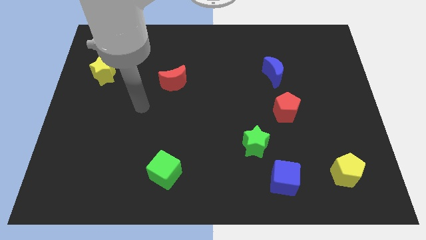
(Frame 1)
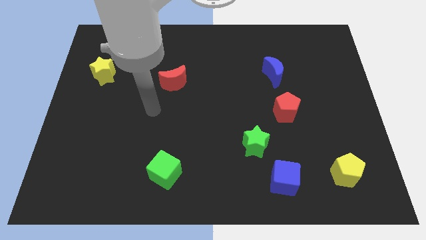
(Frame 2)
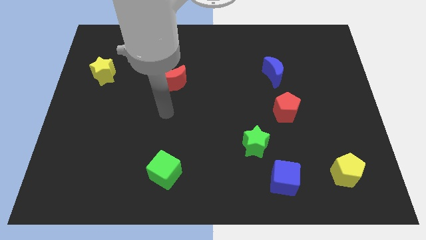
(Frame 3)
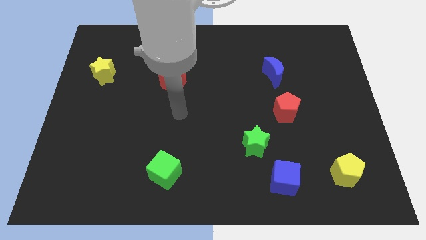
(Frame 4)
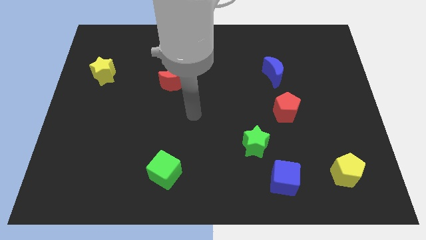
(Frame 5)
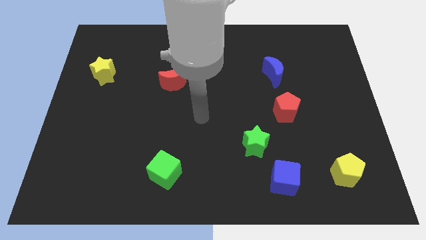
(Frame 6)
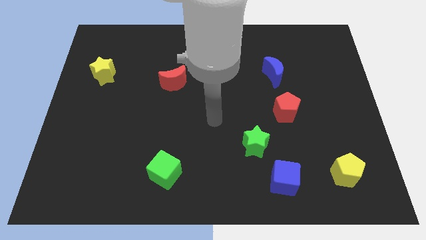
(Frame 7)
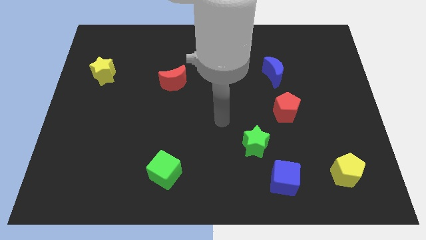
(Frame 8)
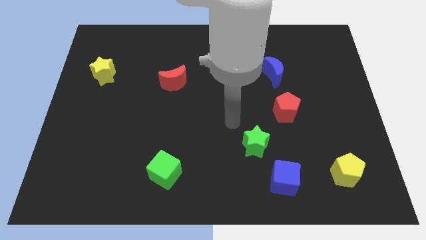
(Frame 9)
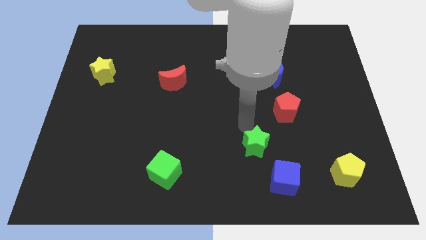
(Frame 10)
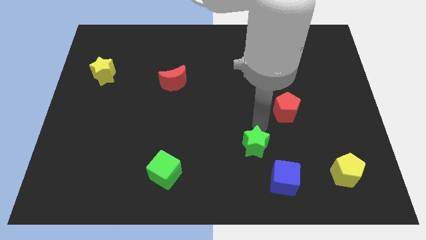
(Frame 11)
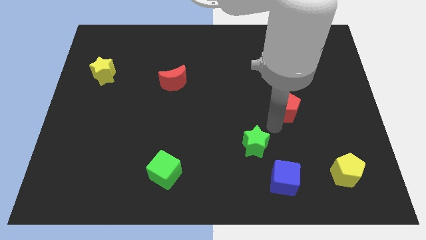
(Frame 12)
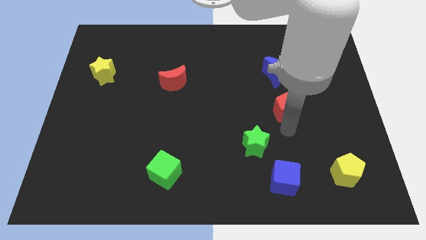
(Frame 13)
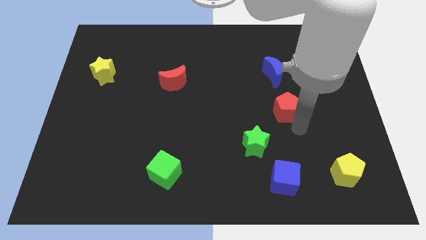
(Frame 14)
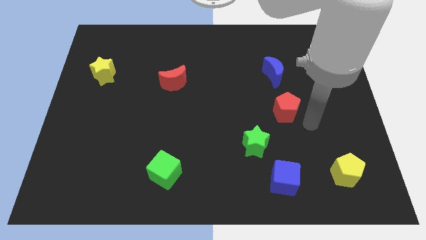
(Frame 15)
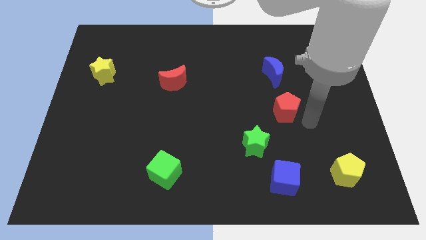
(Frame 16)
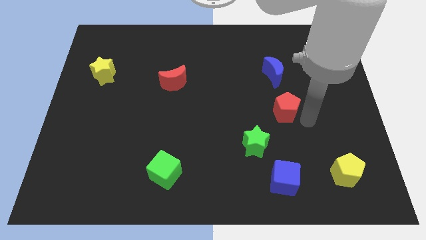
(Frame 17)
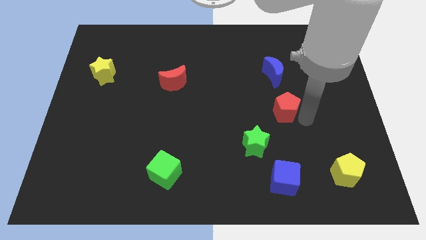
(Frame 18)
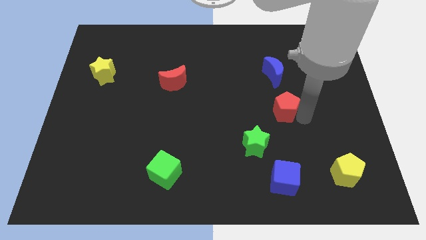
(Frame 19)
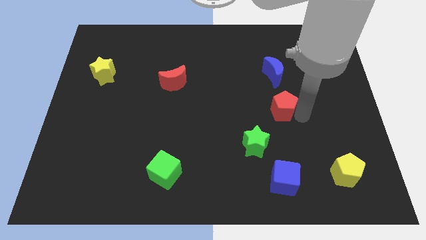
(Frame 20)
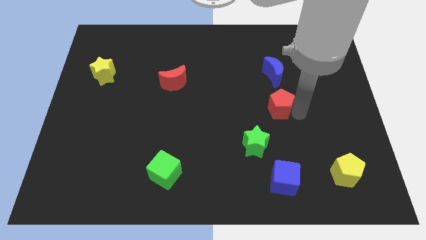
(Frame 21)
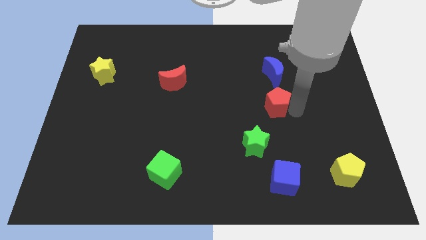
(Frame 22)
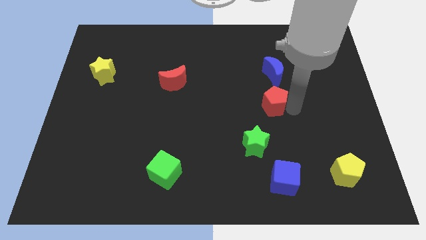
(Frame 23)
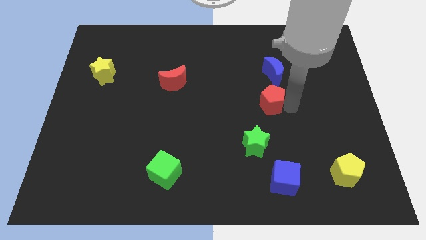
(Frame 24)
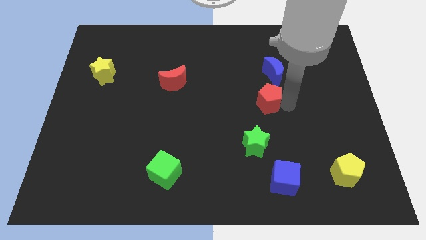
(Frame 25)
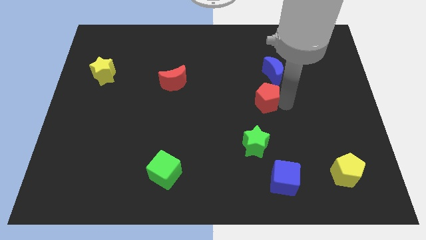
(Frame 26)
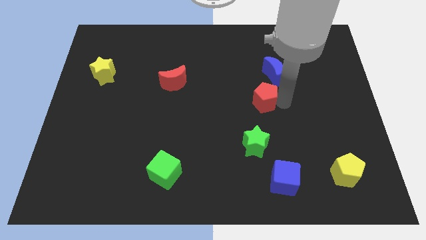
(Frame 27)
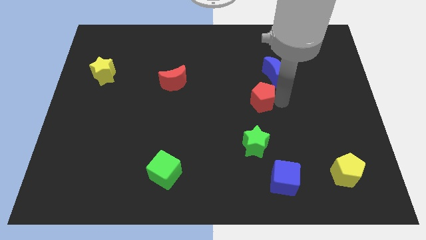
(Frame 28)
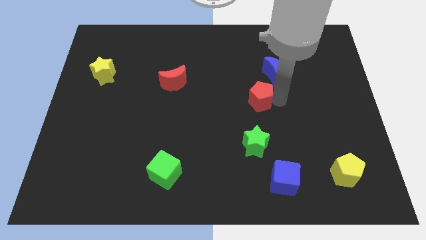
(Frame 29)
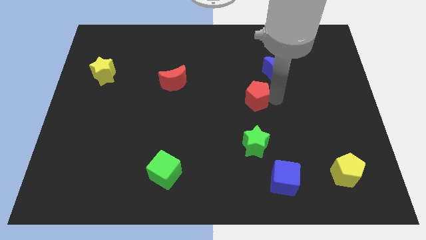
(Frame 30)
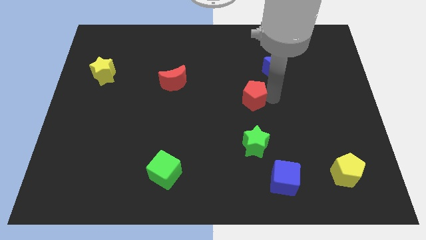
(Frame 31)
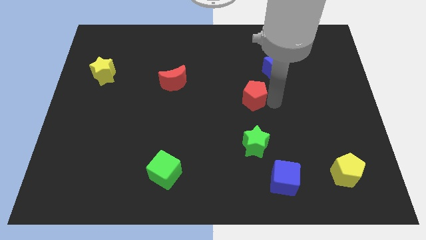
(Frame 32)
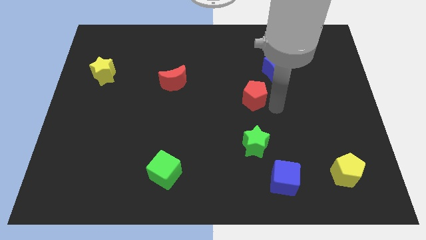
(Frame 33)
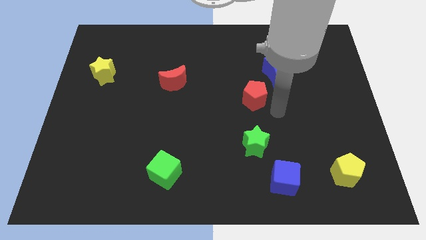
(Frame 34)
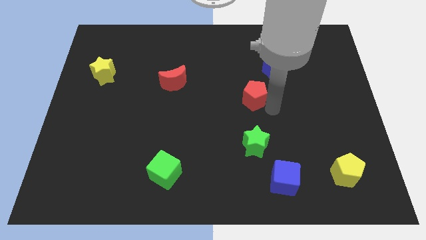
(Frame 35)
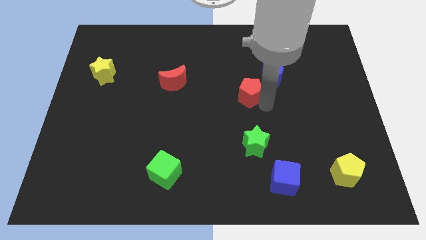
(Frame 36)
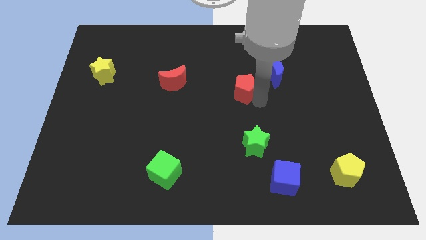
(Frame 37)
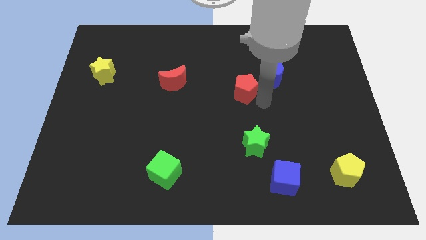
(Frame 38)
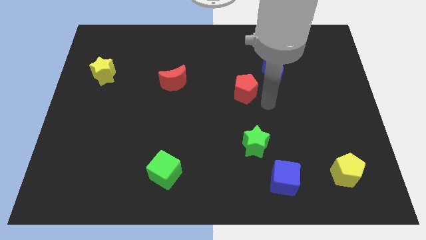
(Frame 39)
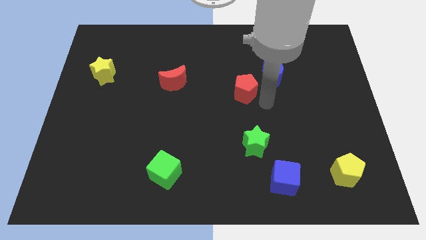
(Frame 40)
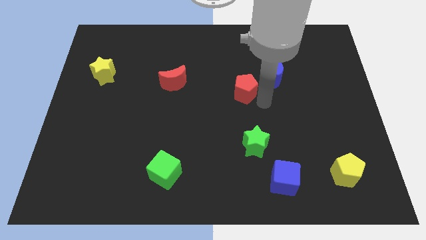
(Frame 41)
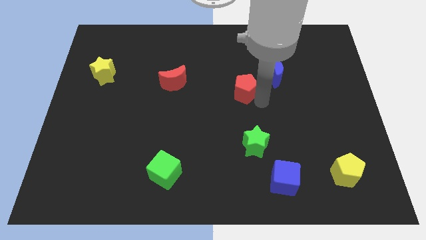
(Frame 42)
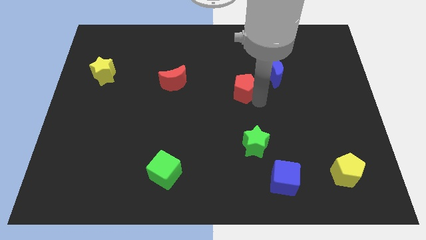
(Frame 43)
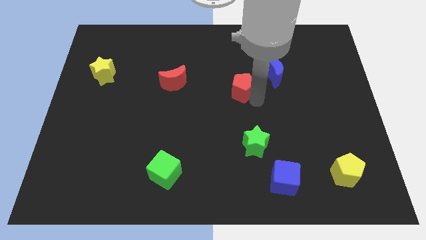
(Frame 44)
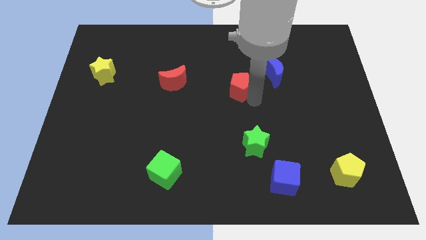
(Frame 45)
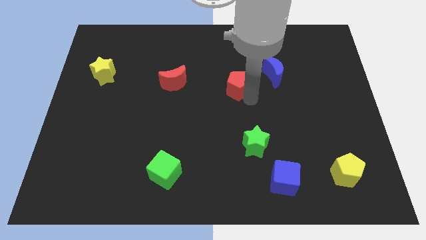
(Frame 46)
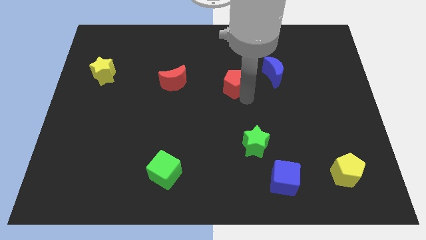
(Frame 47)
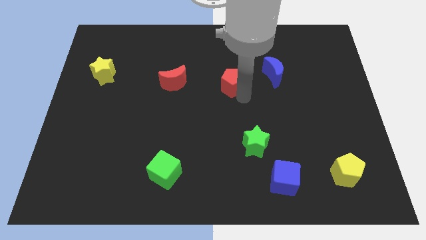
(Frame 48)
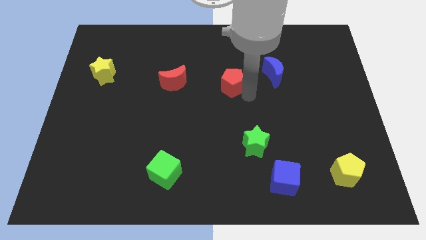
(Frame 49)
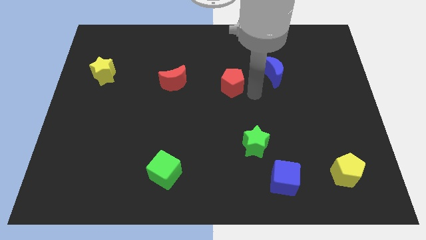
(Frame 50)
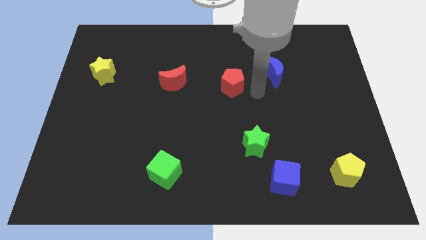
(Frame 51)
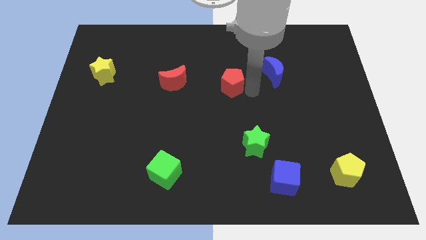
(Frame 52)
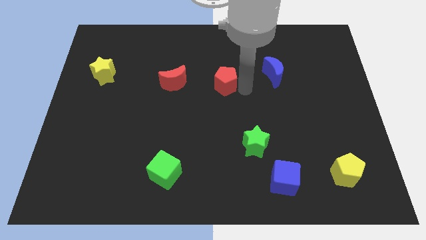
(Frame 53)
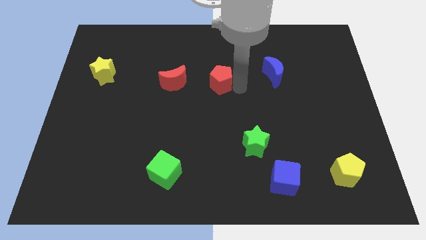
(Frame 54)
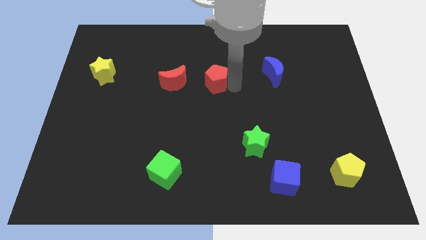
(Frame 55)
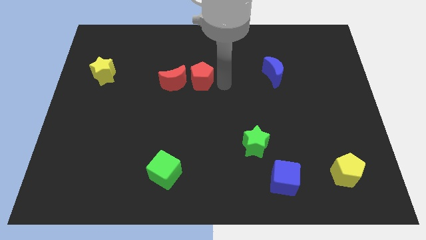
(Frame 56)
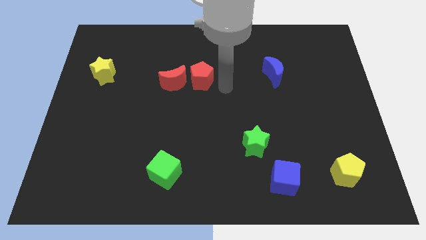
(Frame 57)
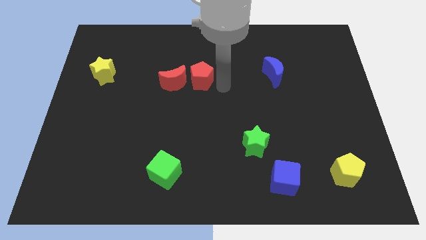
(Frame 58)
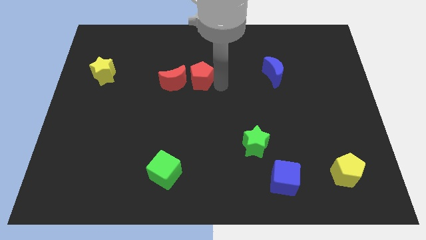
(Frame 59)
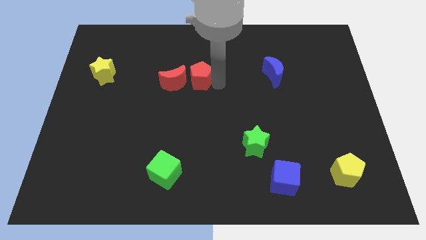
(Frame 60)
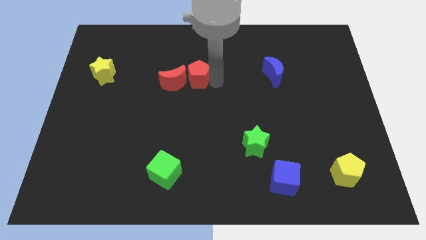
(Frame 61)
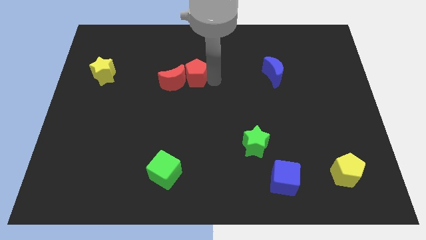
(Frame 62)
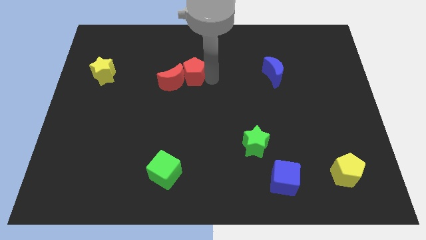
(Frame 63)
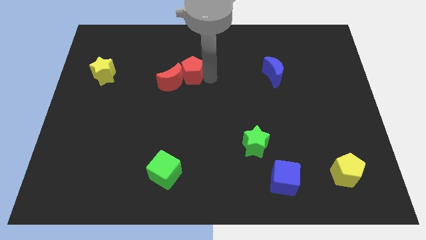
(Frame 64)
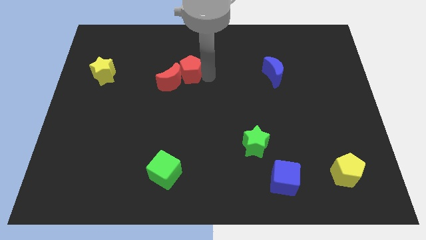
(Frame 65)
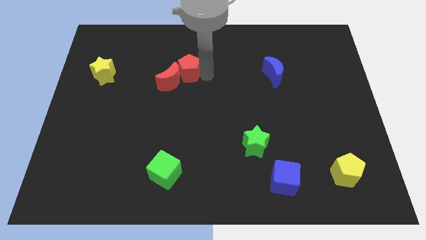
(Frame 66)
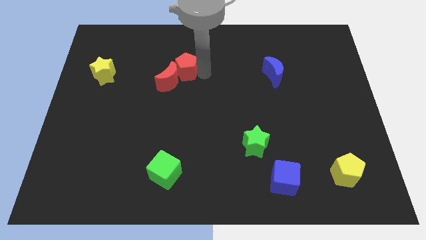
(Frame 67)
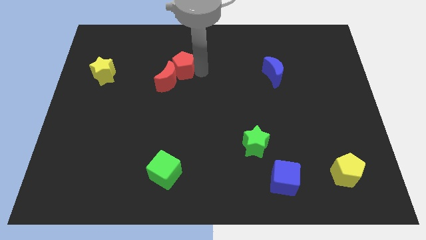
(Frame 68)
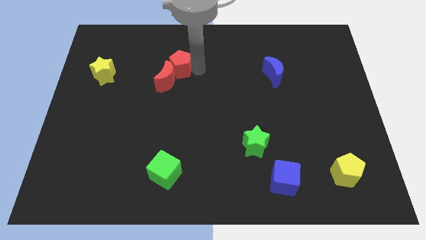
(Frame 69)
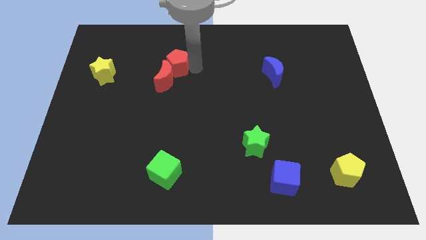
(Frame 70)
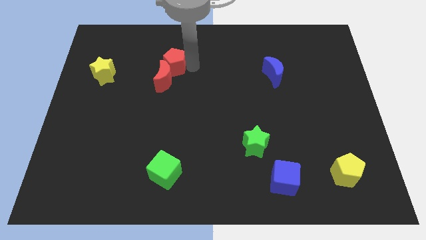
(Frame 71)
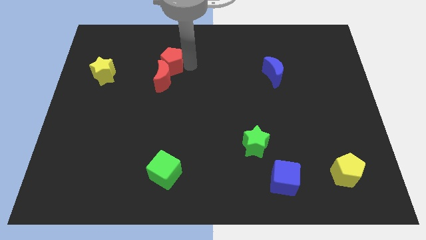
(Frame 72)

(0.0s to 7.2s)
slide the red pentagon diagonally up and to the left of the red moon
